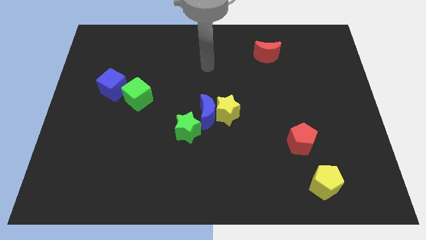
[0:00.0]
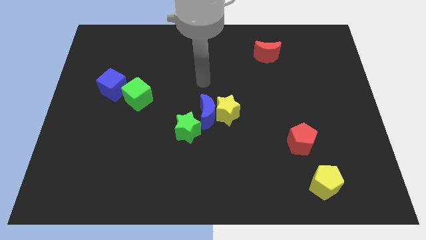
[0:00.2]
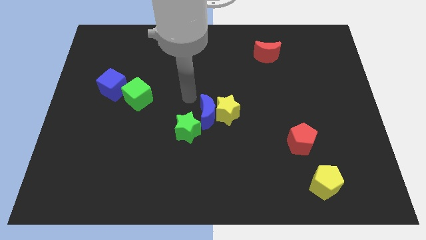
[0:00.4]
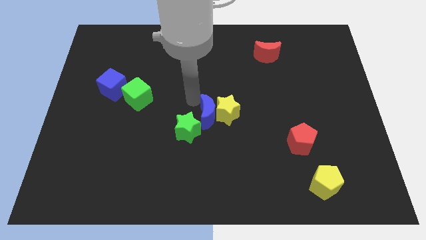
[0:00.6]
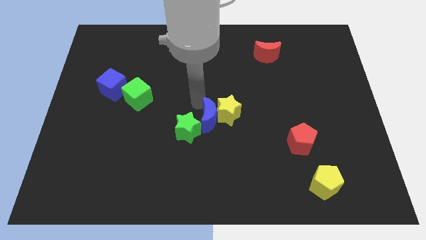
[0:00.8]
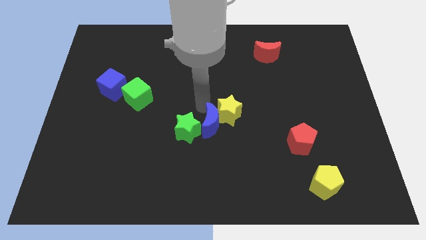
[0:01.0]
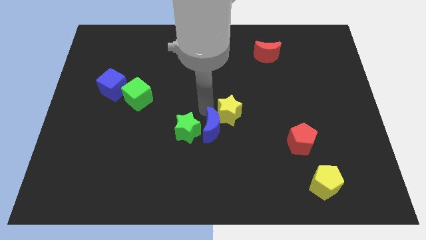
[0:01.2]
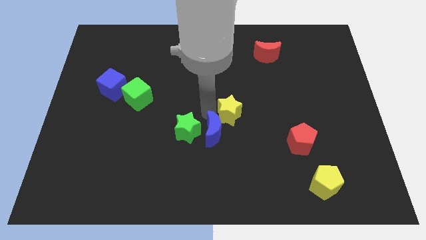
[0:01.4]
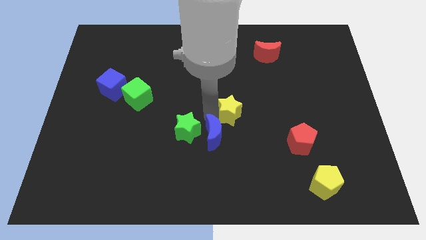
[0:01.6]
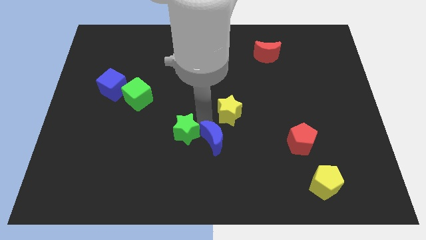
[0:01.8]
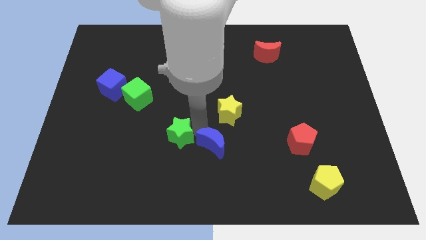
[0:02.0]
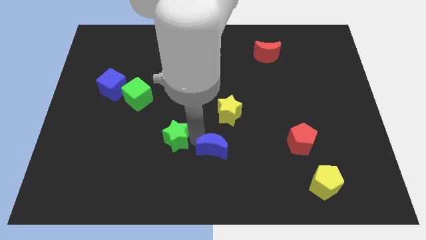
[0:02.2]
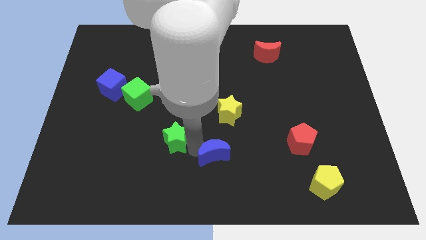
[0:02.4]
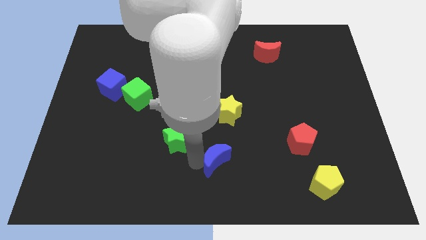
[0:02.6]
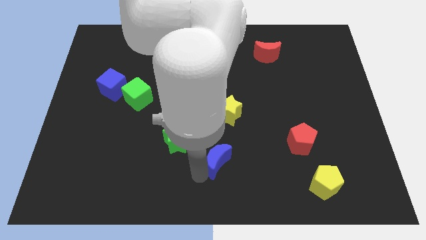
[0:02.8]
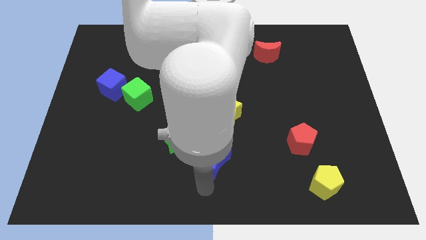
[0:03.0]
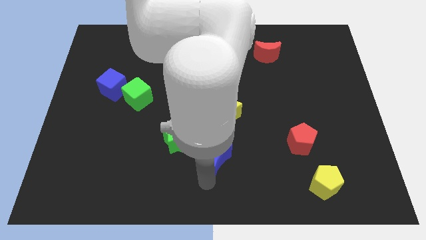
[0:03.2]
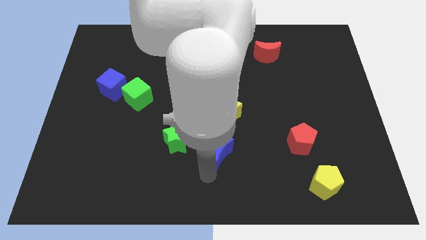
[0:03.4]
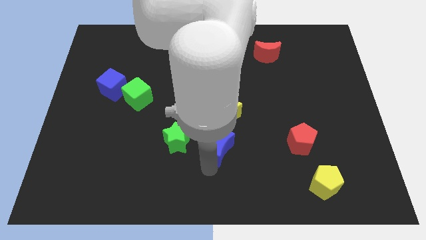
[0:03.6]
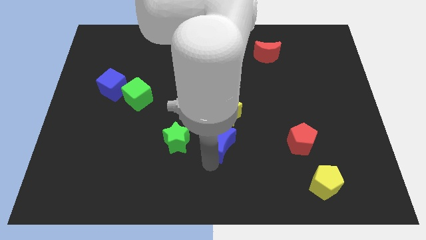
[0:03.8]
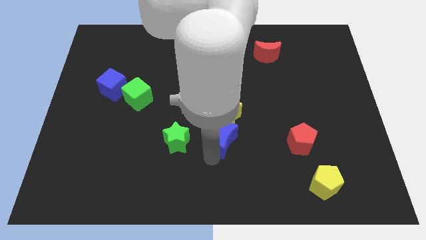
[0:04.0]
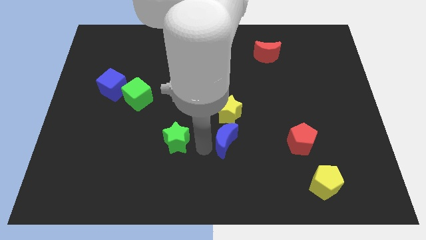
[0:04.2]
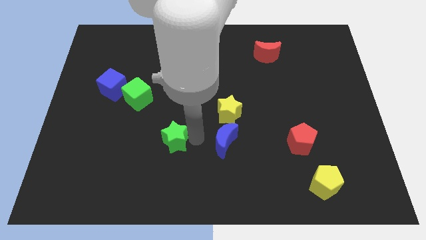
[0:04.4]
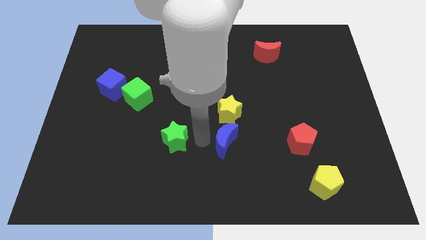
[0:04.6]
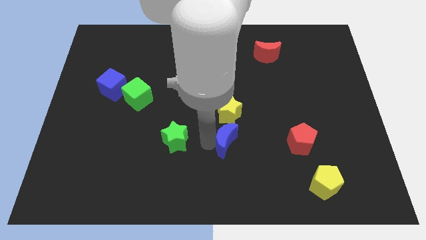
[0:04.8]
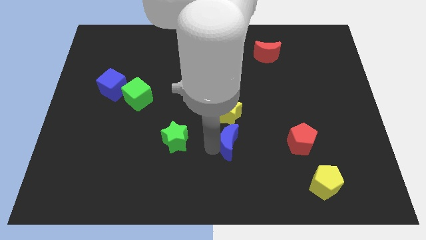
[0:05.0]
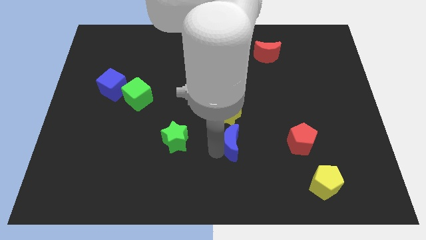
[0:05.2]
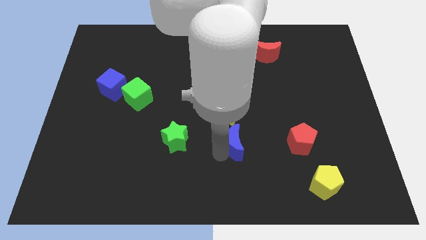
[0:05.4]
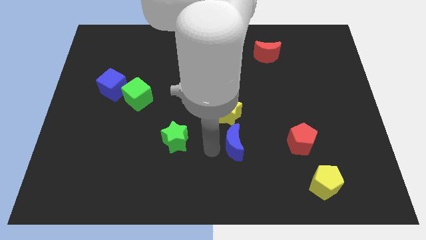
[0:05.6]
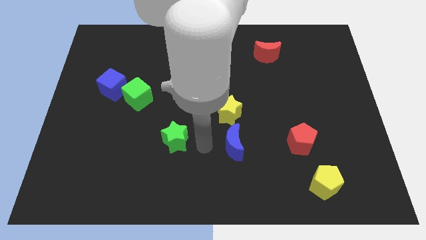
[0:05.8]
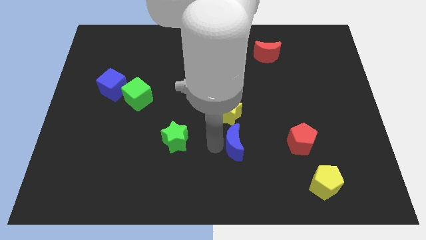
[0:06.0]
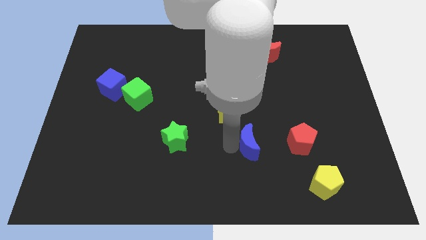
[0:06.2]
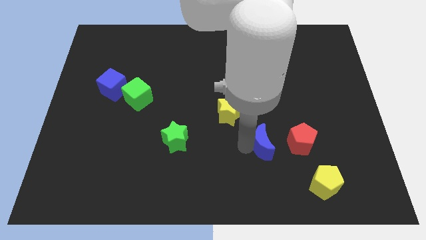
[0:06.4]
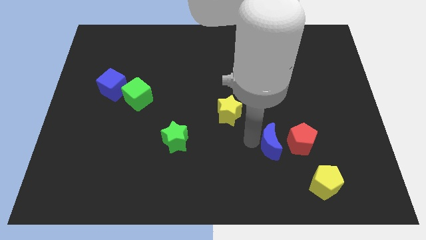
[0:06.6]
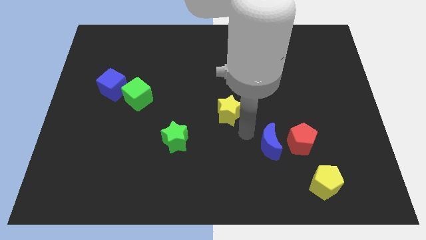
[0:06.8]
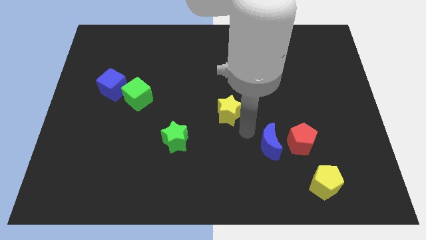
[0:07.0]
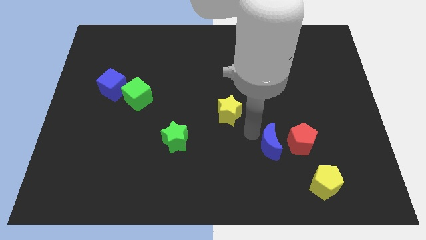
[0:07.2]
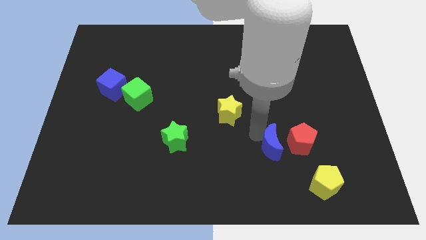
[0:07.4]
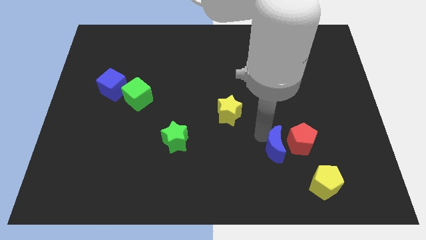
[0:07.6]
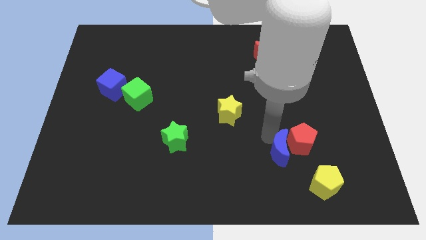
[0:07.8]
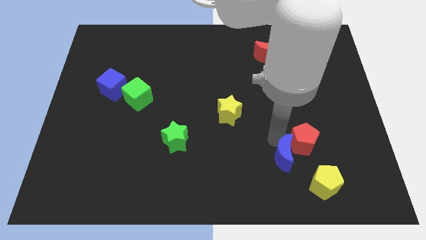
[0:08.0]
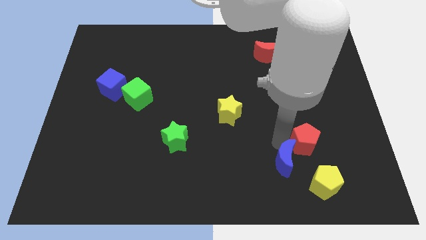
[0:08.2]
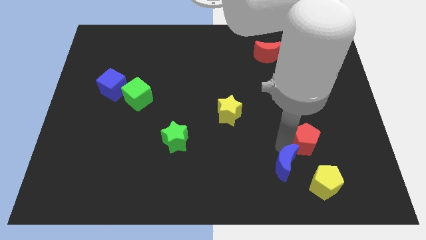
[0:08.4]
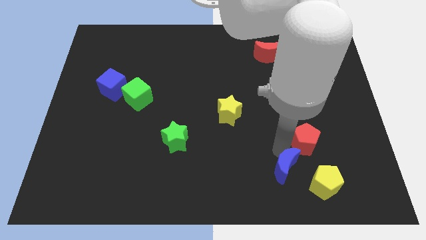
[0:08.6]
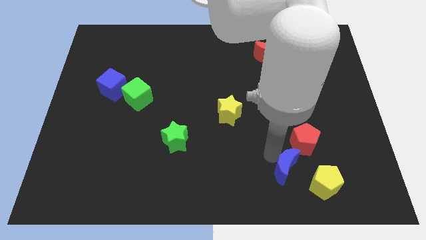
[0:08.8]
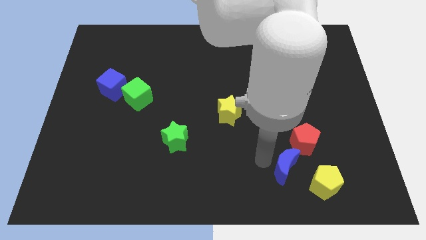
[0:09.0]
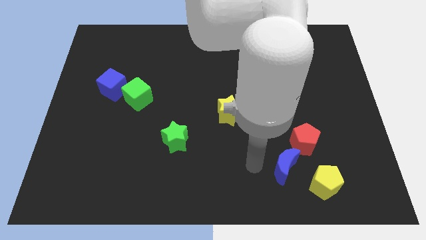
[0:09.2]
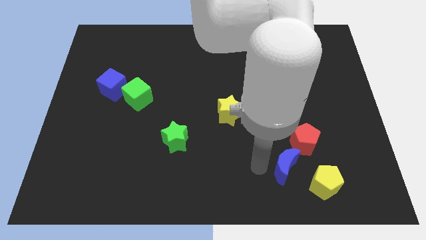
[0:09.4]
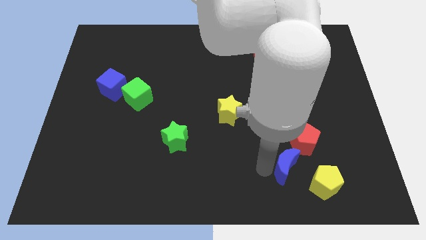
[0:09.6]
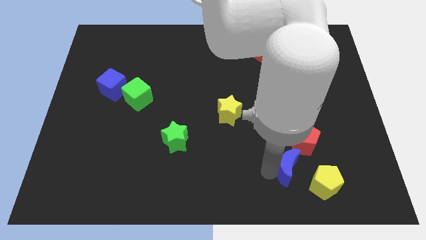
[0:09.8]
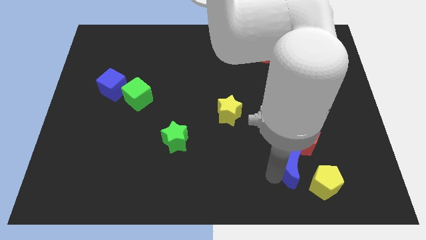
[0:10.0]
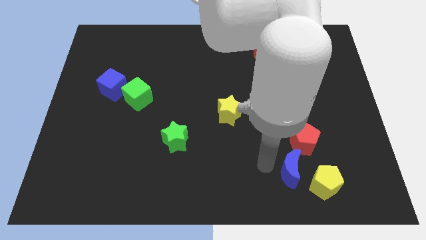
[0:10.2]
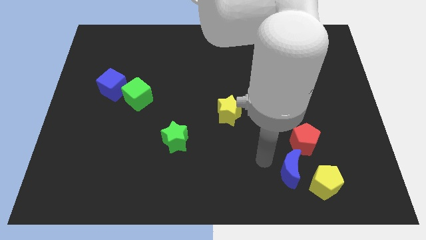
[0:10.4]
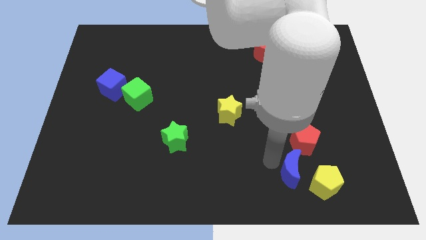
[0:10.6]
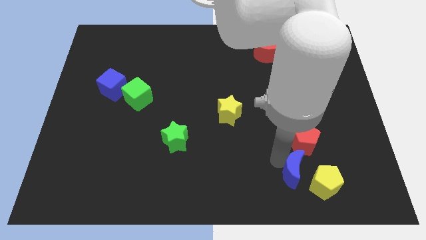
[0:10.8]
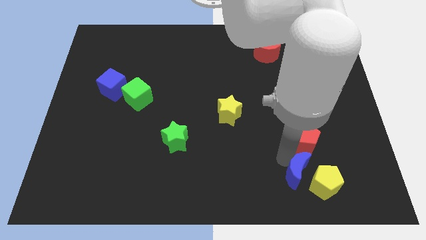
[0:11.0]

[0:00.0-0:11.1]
move the blue moon towards the yellow pentagon

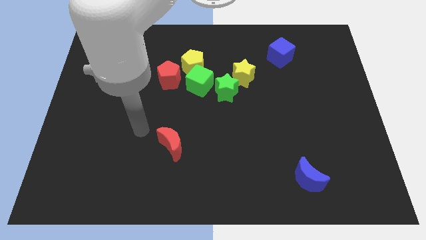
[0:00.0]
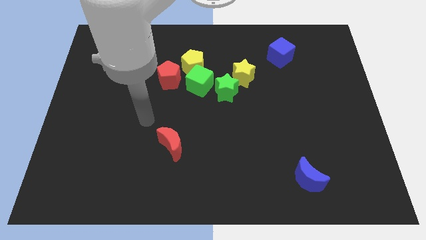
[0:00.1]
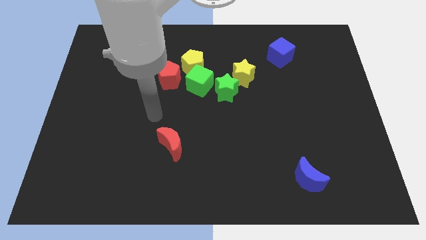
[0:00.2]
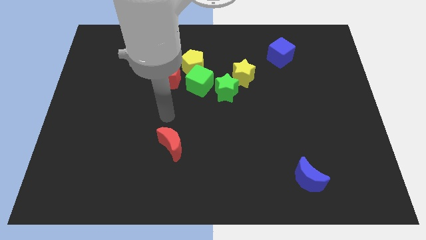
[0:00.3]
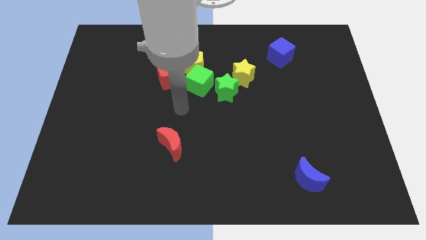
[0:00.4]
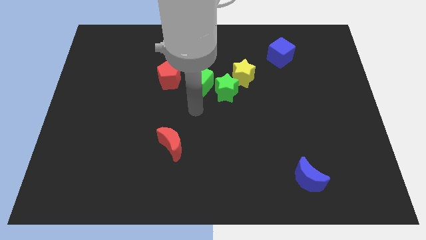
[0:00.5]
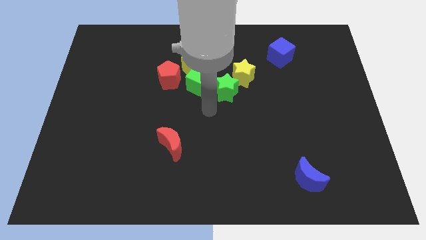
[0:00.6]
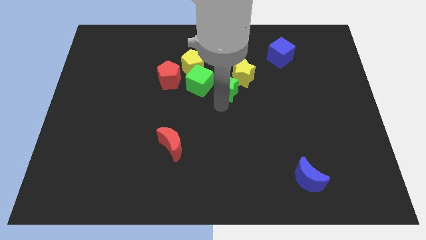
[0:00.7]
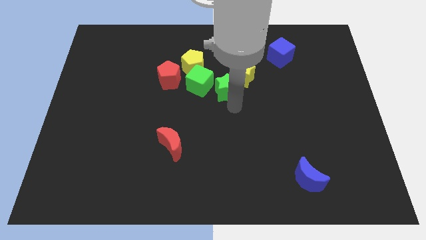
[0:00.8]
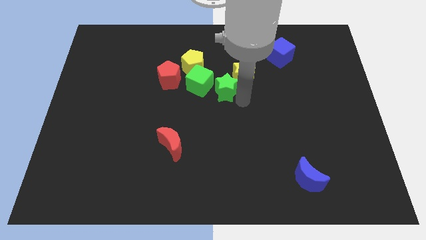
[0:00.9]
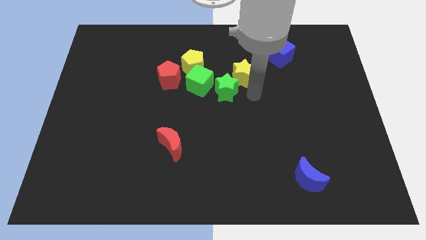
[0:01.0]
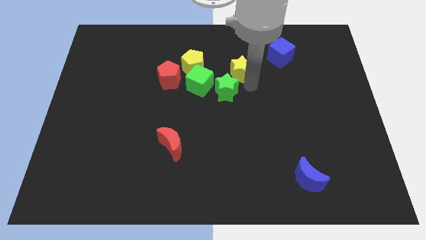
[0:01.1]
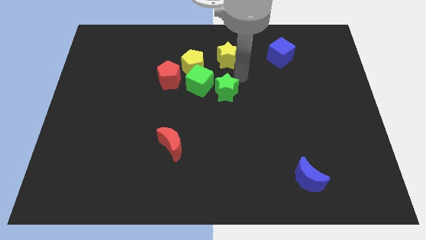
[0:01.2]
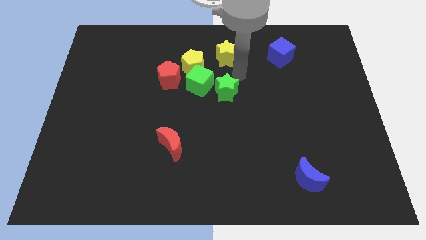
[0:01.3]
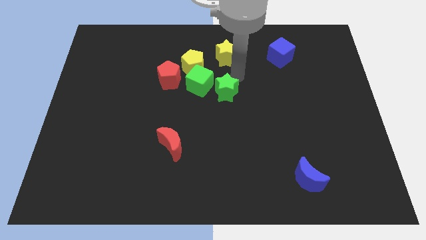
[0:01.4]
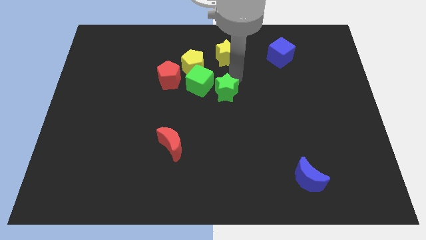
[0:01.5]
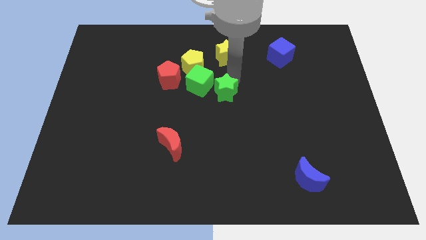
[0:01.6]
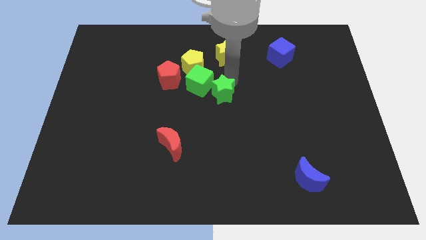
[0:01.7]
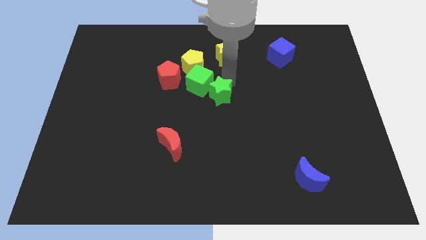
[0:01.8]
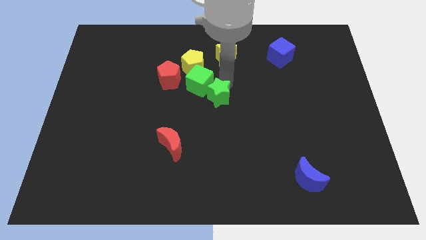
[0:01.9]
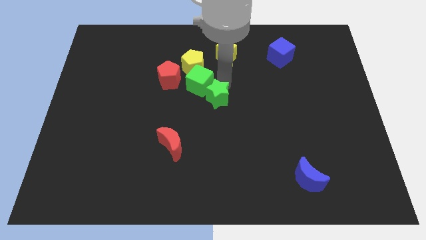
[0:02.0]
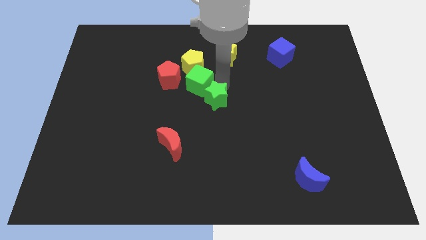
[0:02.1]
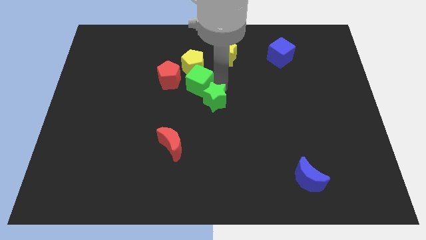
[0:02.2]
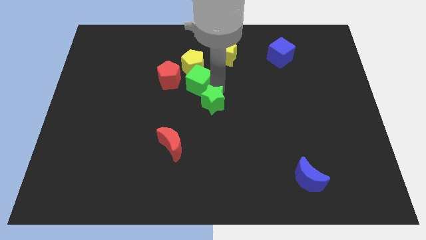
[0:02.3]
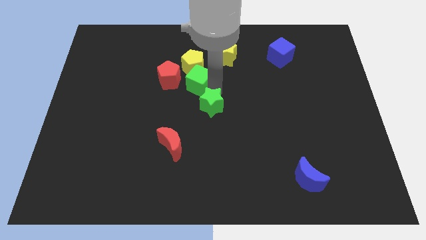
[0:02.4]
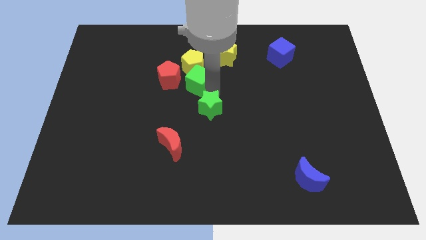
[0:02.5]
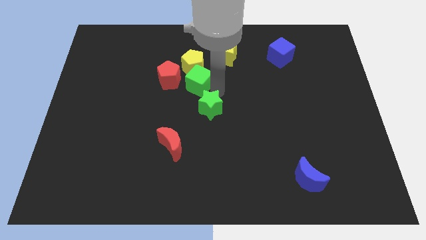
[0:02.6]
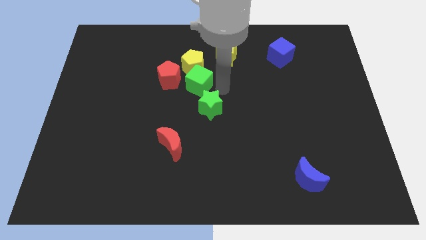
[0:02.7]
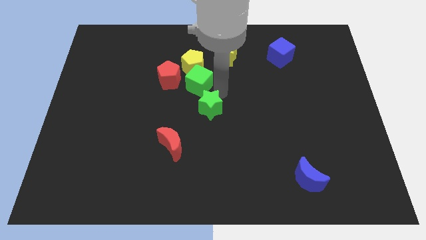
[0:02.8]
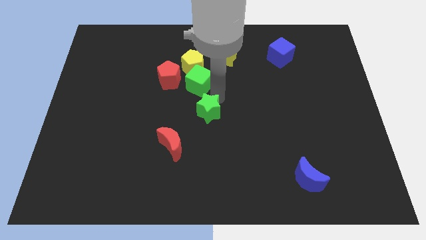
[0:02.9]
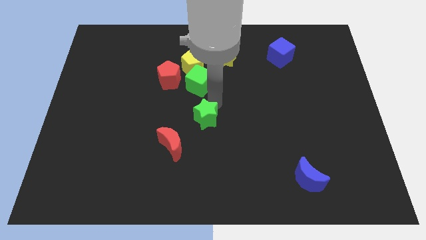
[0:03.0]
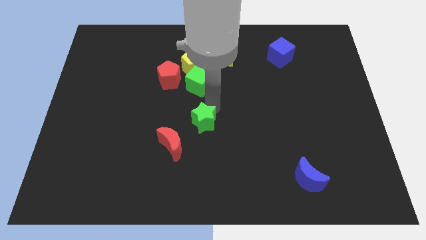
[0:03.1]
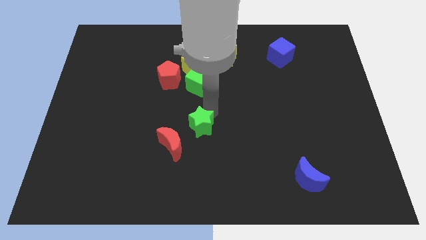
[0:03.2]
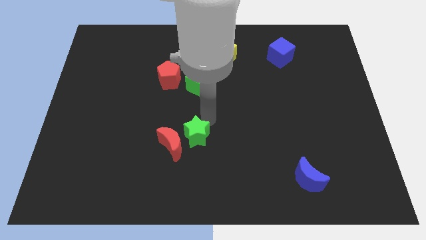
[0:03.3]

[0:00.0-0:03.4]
move the green star towards the red moon

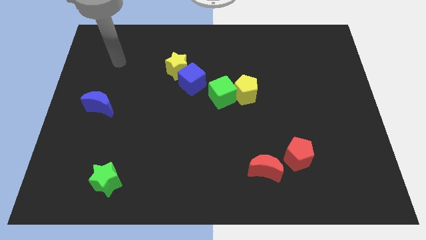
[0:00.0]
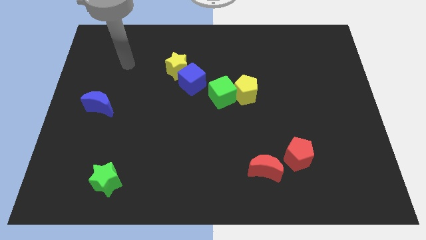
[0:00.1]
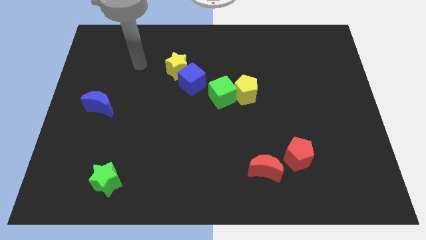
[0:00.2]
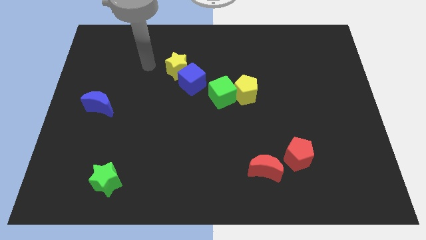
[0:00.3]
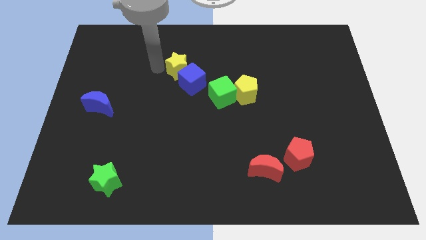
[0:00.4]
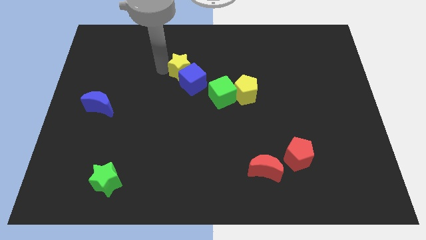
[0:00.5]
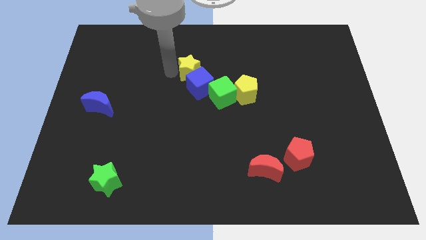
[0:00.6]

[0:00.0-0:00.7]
move the blue cube next to the green cube
